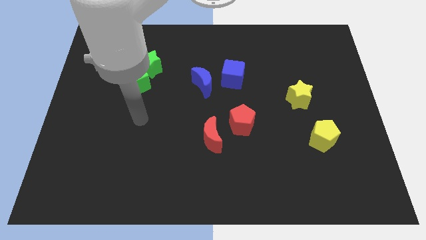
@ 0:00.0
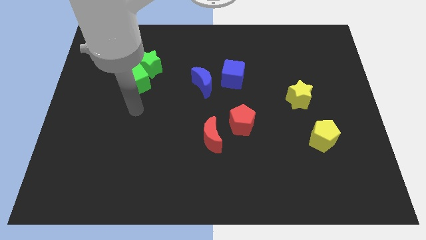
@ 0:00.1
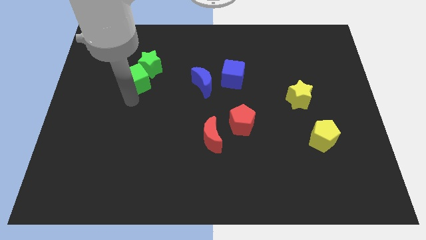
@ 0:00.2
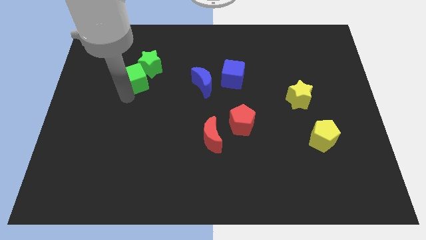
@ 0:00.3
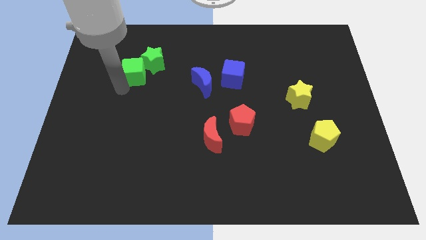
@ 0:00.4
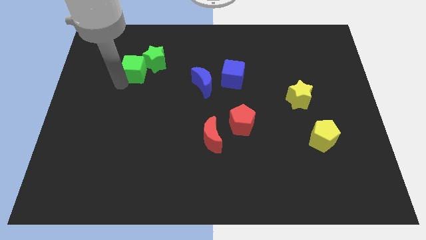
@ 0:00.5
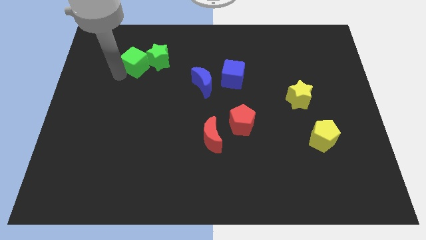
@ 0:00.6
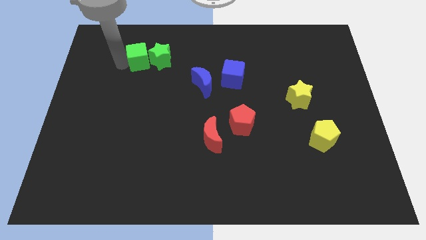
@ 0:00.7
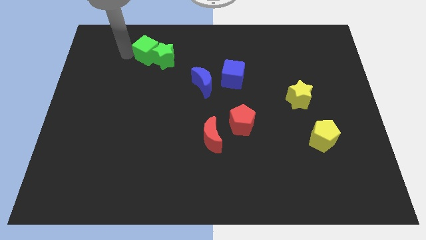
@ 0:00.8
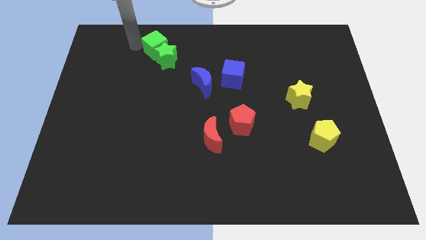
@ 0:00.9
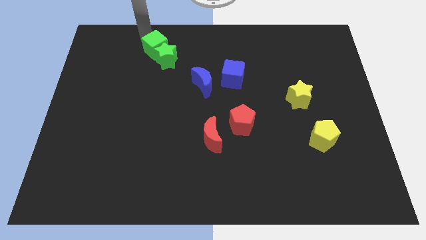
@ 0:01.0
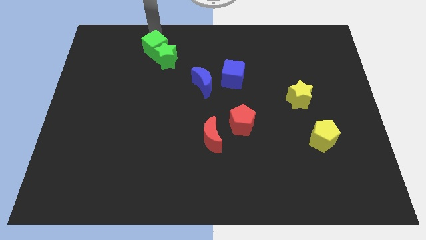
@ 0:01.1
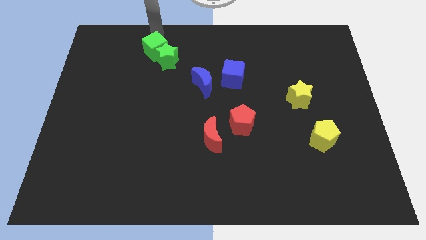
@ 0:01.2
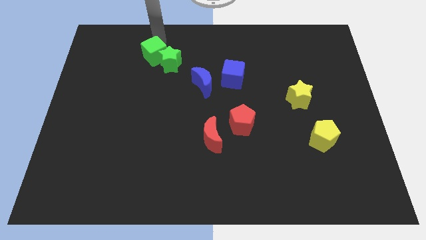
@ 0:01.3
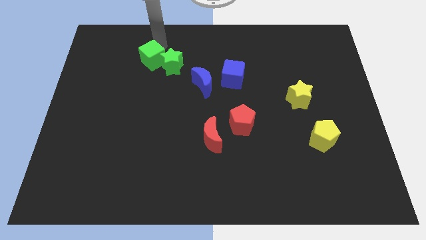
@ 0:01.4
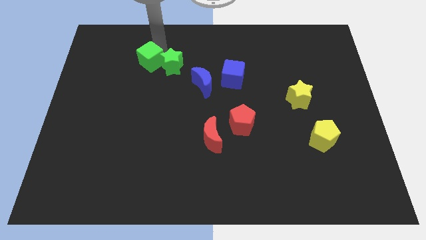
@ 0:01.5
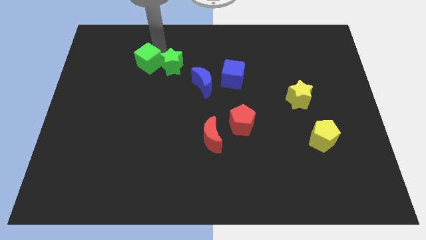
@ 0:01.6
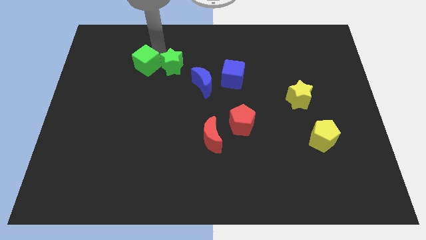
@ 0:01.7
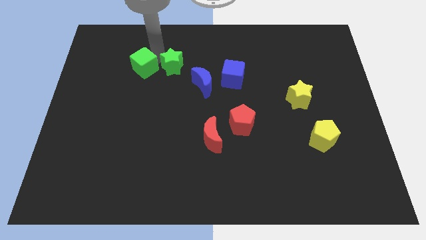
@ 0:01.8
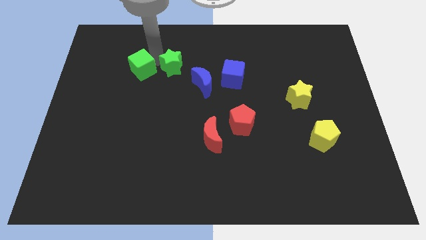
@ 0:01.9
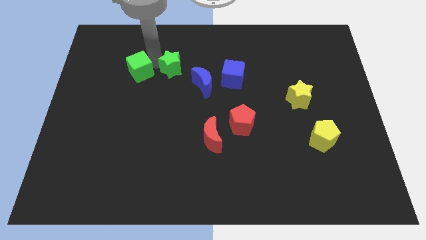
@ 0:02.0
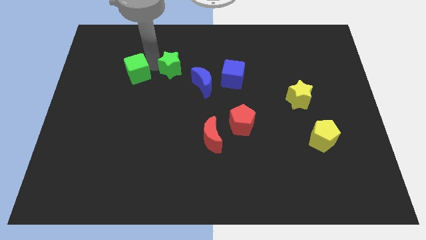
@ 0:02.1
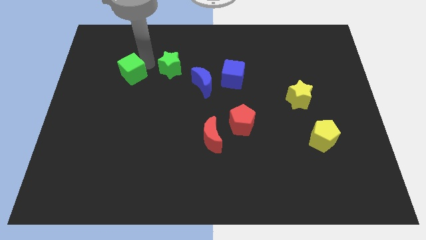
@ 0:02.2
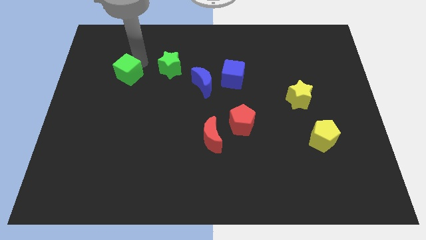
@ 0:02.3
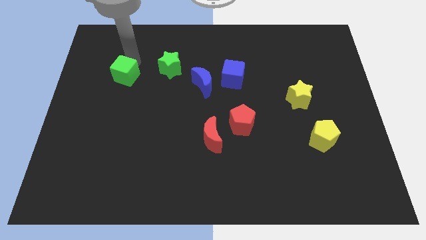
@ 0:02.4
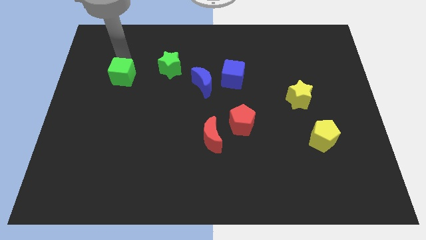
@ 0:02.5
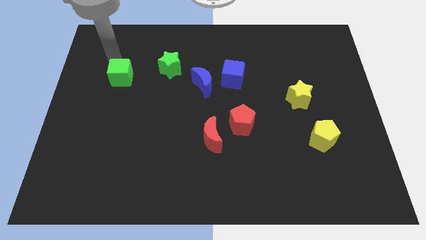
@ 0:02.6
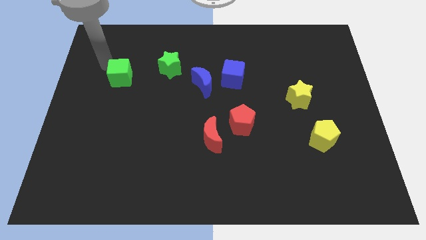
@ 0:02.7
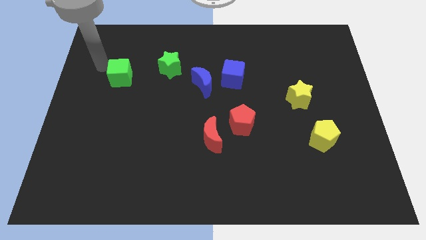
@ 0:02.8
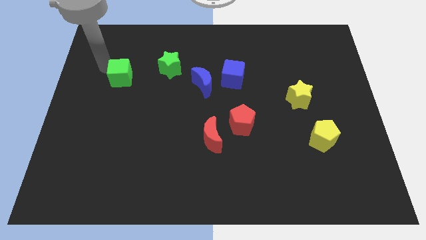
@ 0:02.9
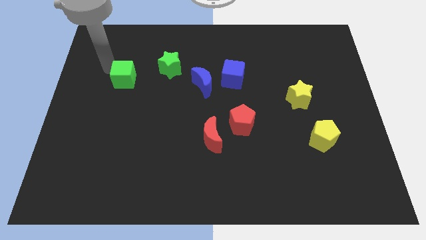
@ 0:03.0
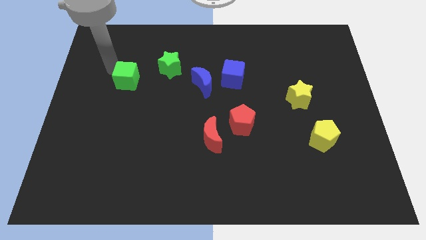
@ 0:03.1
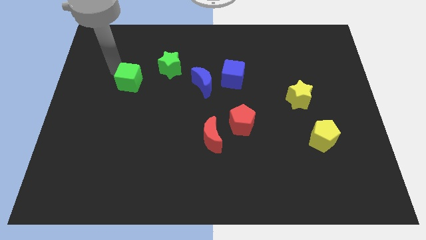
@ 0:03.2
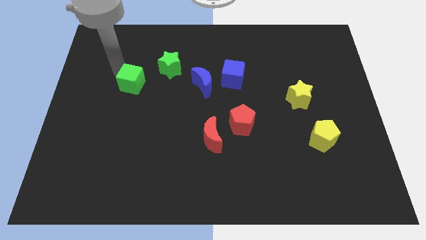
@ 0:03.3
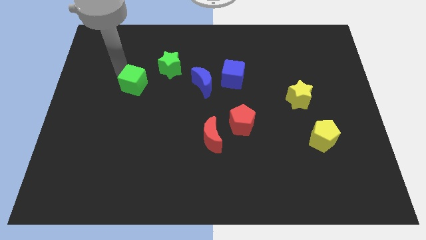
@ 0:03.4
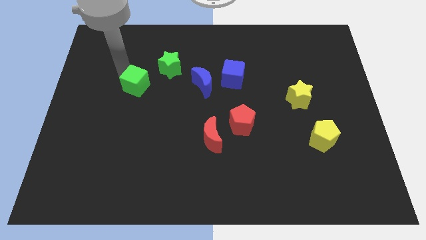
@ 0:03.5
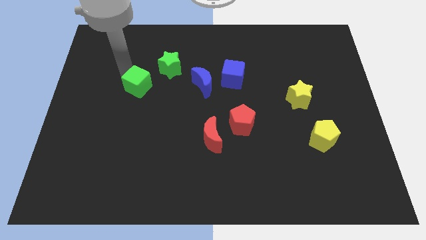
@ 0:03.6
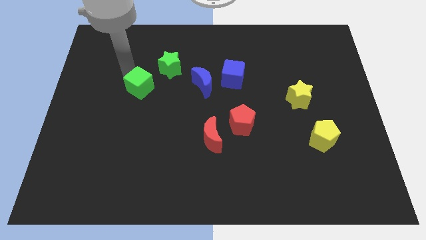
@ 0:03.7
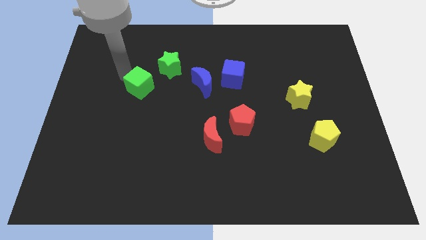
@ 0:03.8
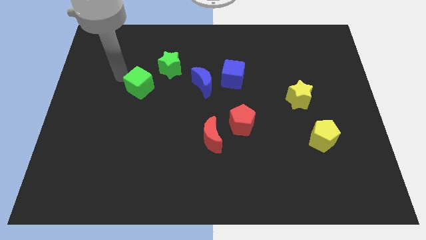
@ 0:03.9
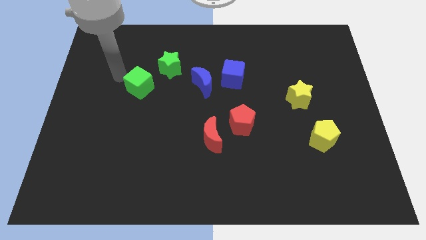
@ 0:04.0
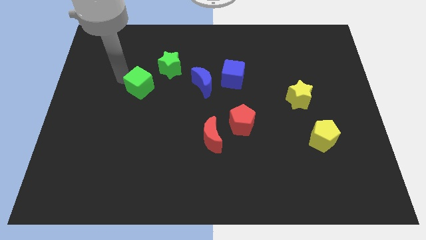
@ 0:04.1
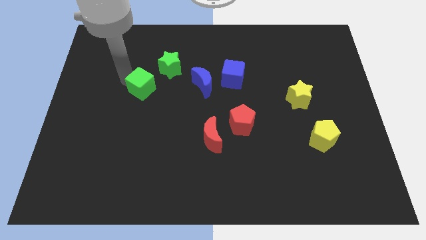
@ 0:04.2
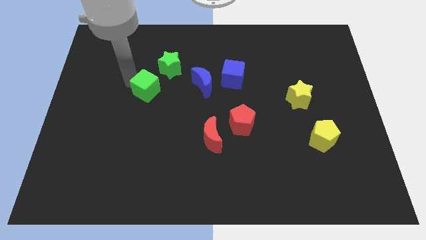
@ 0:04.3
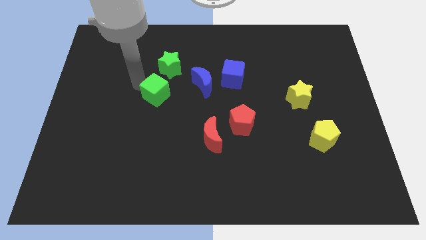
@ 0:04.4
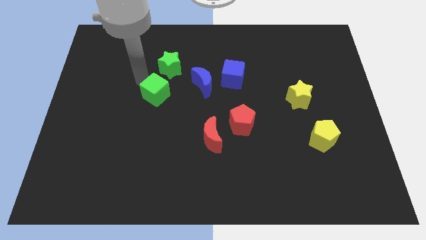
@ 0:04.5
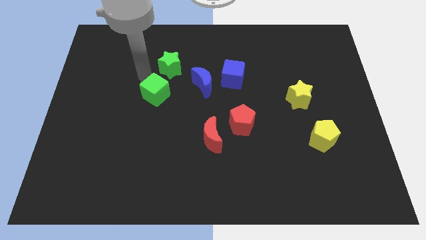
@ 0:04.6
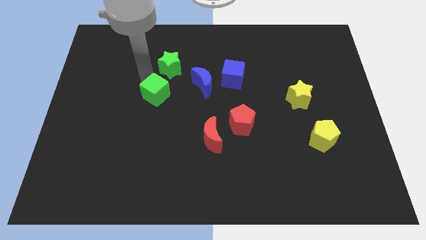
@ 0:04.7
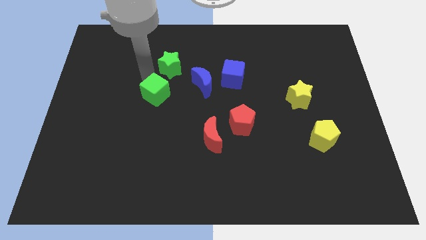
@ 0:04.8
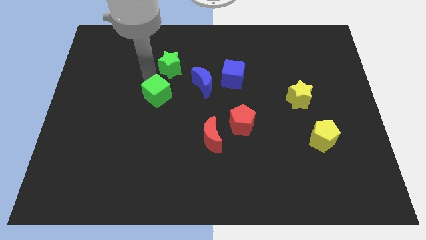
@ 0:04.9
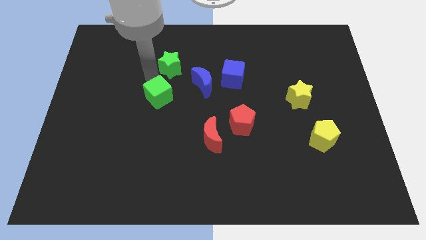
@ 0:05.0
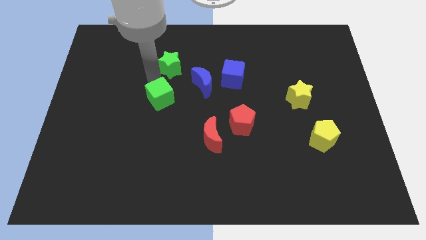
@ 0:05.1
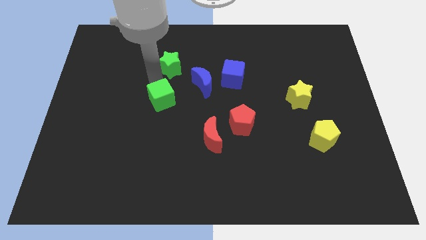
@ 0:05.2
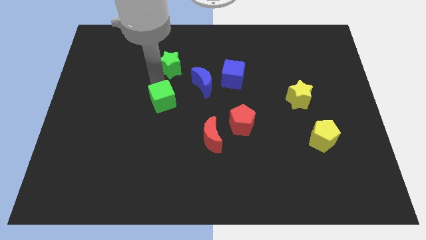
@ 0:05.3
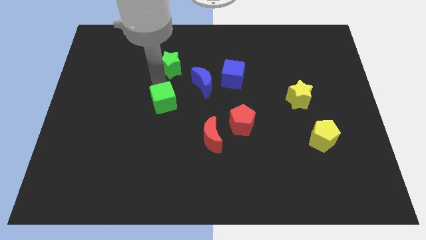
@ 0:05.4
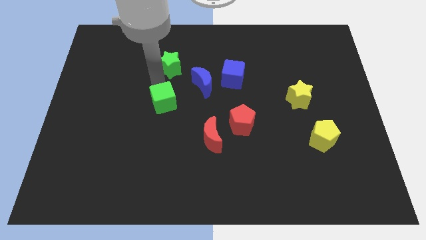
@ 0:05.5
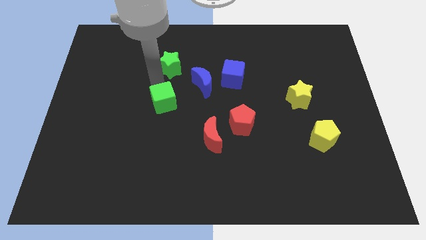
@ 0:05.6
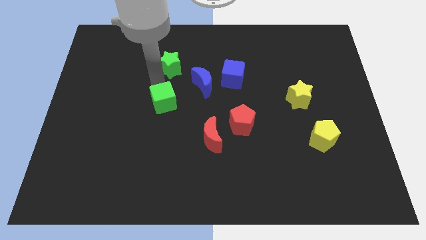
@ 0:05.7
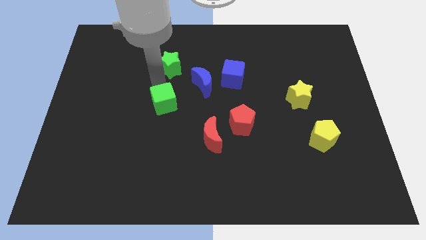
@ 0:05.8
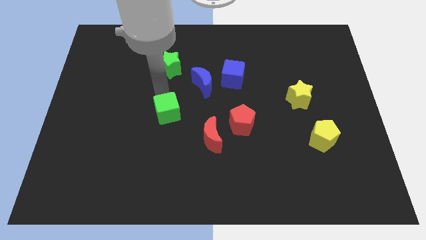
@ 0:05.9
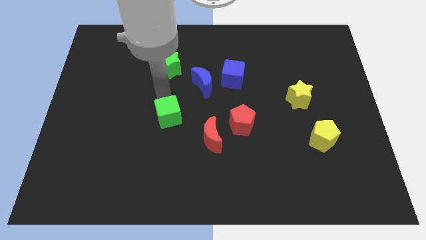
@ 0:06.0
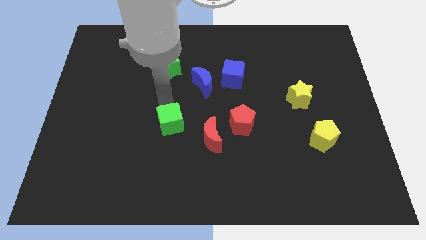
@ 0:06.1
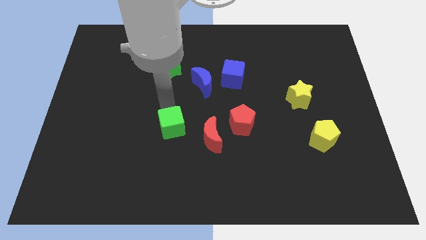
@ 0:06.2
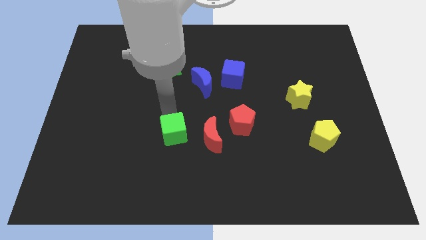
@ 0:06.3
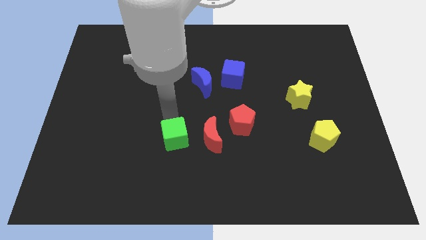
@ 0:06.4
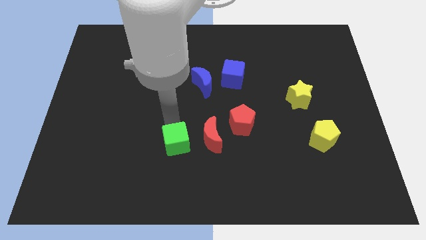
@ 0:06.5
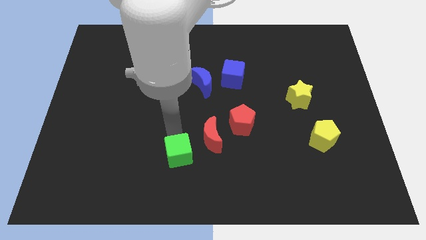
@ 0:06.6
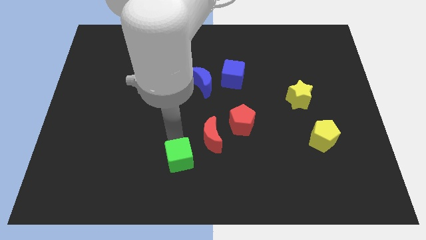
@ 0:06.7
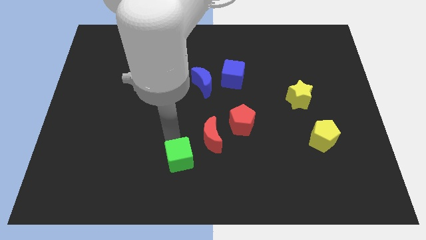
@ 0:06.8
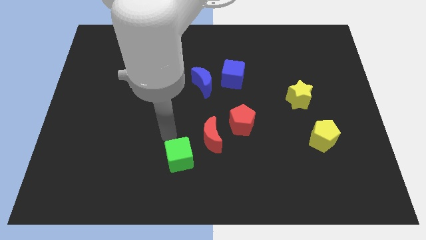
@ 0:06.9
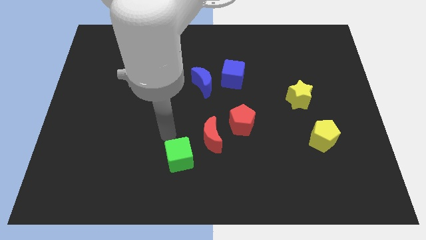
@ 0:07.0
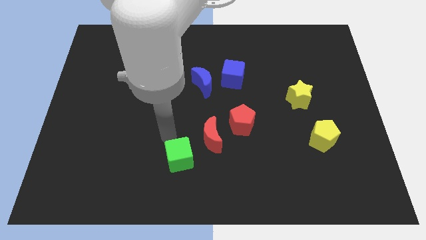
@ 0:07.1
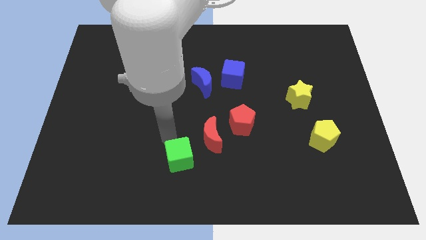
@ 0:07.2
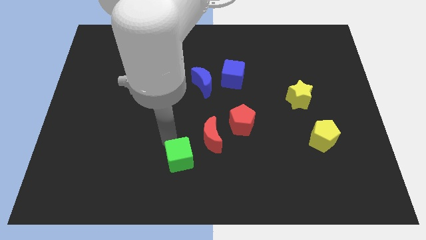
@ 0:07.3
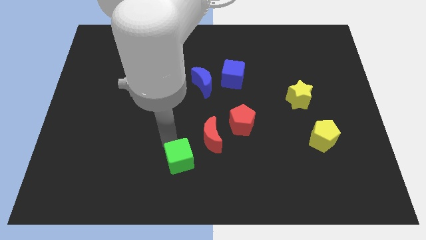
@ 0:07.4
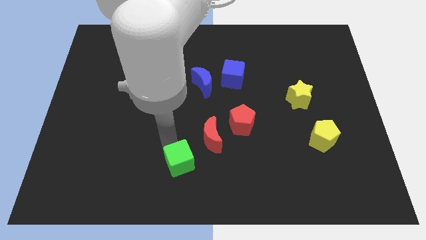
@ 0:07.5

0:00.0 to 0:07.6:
slide the green cube to the bottom side
